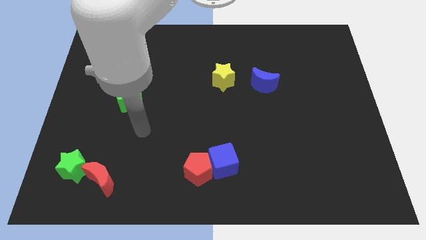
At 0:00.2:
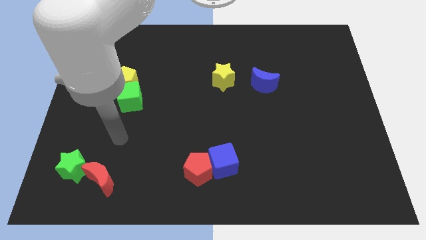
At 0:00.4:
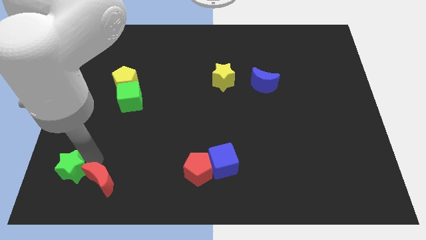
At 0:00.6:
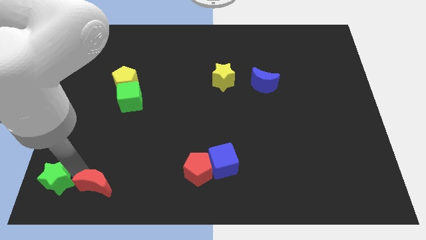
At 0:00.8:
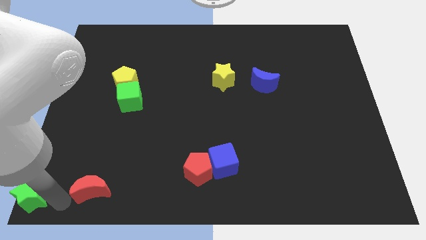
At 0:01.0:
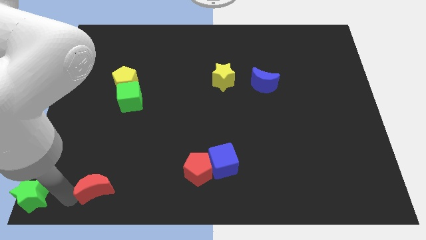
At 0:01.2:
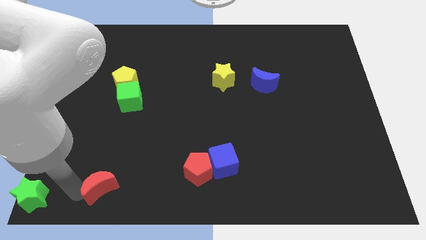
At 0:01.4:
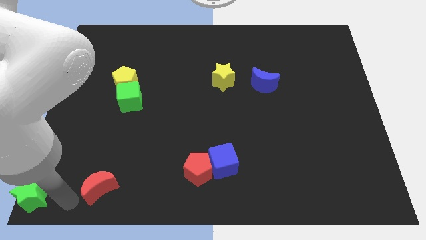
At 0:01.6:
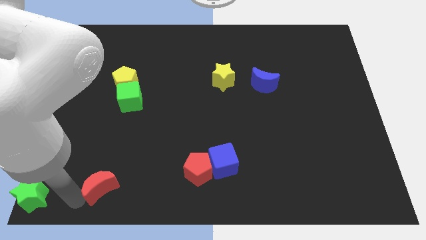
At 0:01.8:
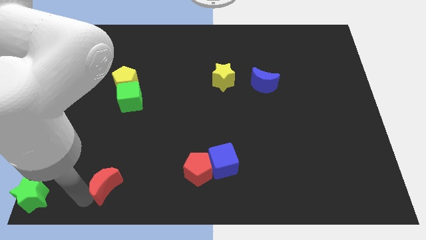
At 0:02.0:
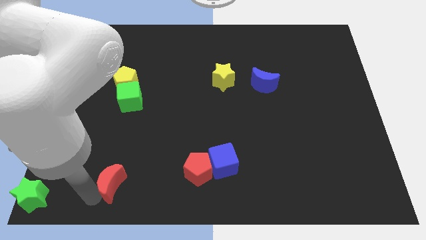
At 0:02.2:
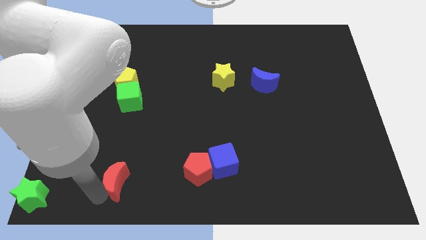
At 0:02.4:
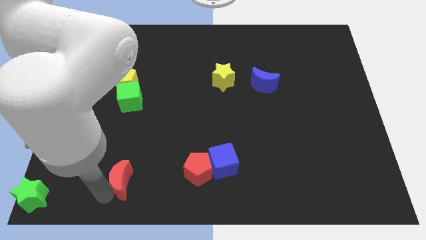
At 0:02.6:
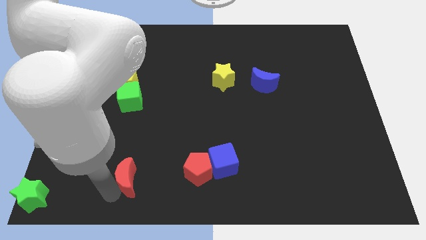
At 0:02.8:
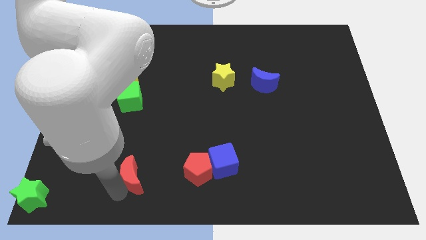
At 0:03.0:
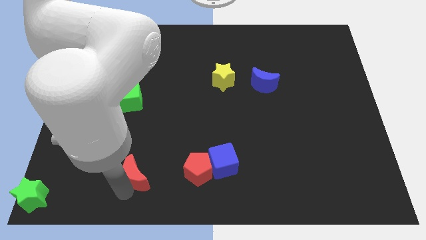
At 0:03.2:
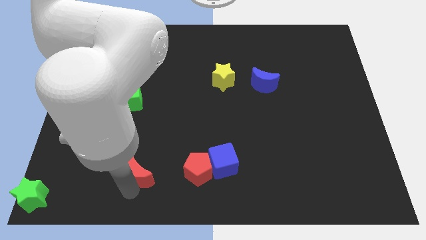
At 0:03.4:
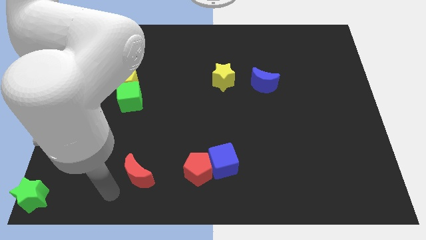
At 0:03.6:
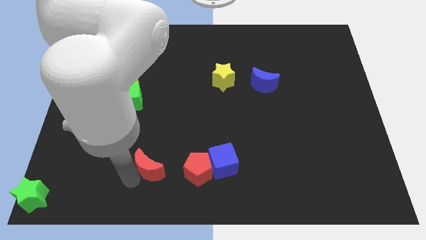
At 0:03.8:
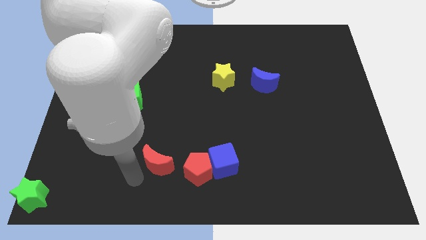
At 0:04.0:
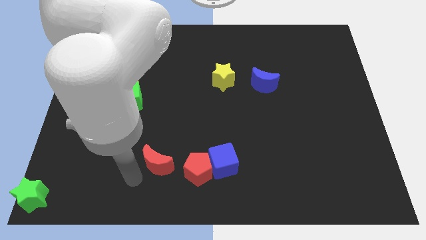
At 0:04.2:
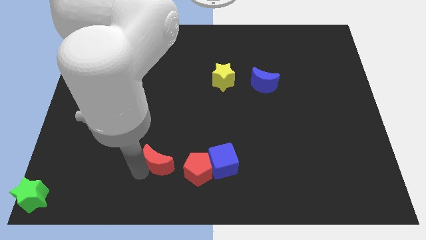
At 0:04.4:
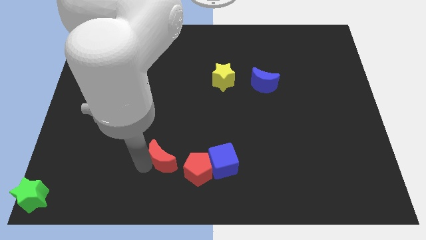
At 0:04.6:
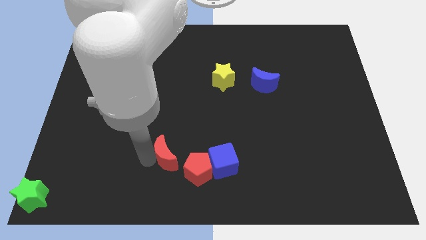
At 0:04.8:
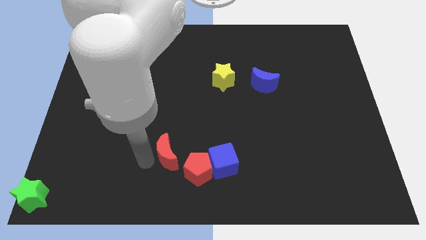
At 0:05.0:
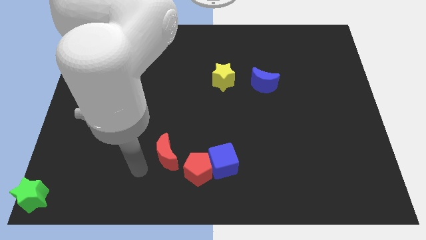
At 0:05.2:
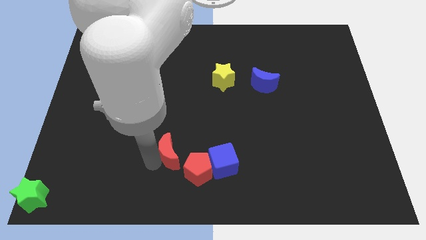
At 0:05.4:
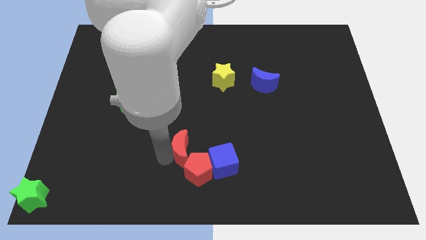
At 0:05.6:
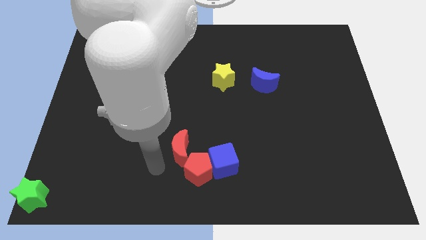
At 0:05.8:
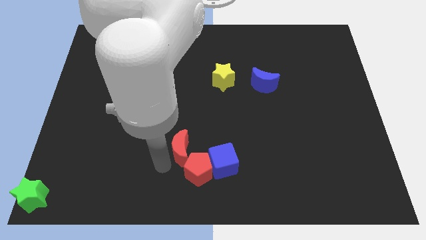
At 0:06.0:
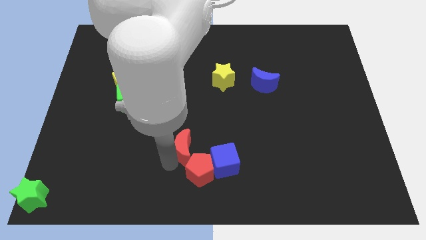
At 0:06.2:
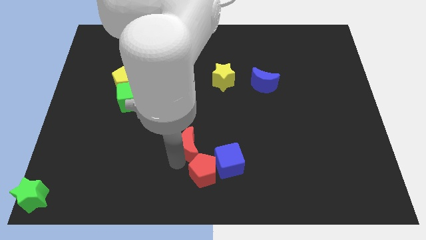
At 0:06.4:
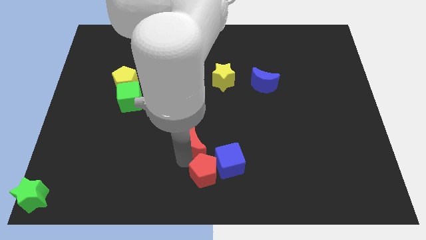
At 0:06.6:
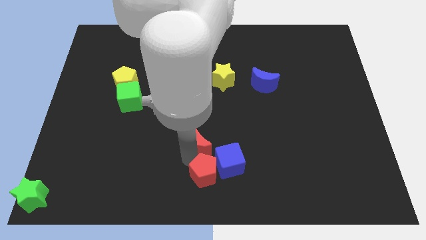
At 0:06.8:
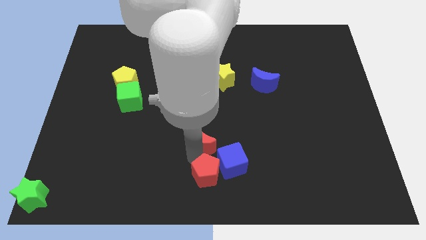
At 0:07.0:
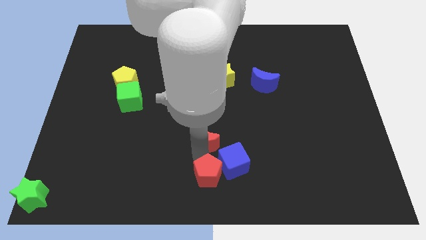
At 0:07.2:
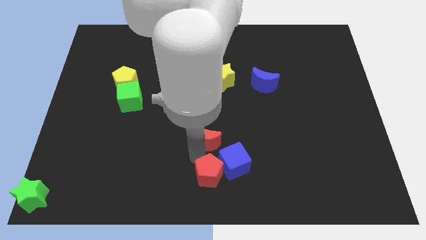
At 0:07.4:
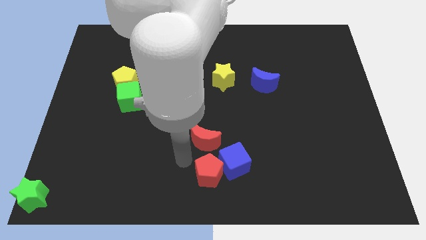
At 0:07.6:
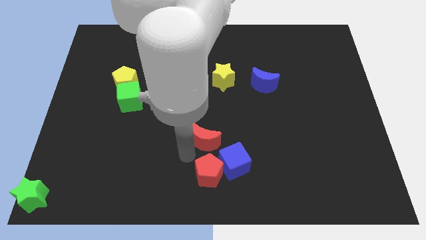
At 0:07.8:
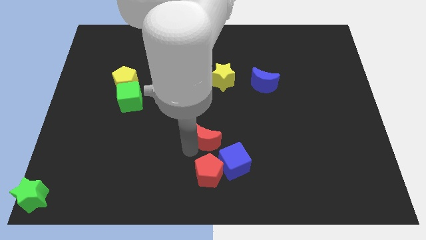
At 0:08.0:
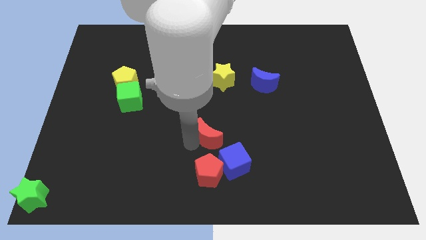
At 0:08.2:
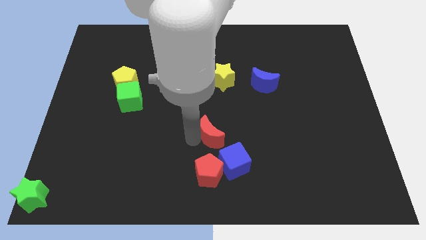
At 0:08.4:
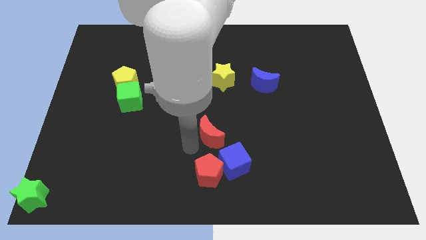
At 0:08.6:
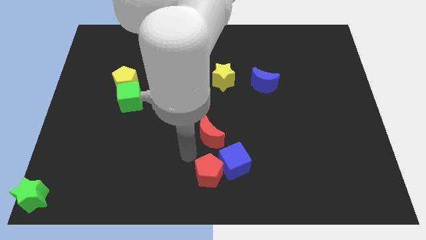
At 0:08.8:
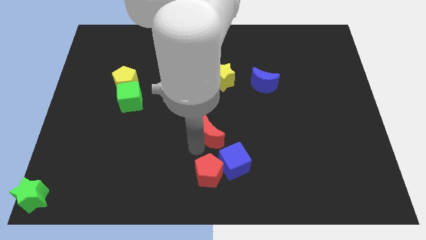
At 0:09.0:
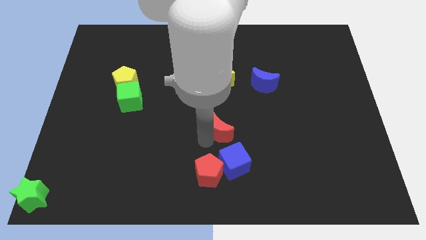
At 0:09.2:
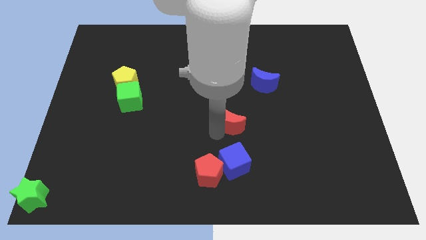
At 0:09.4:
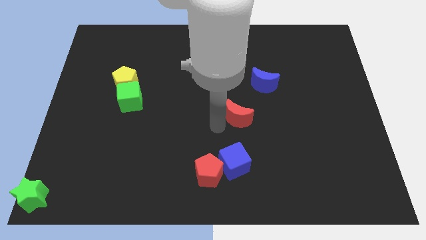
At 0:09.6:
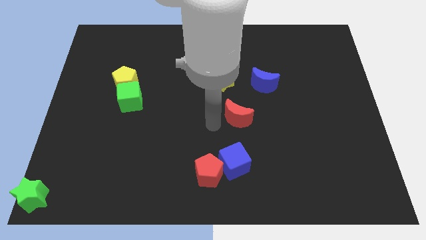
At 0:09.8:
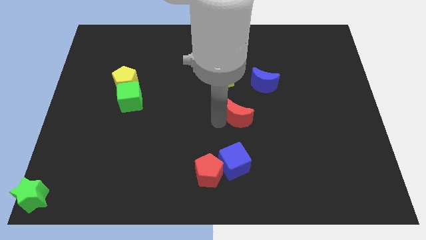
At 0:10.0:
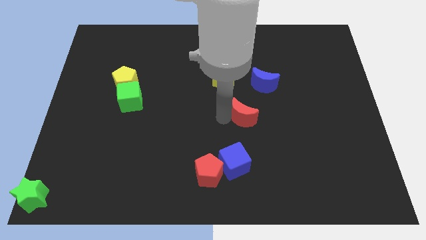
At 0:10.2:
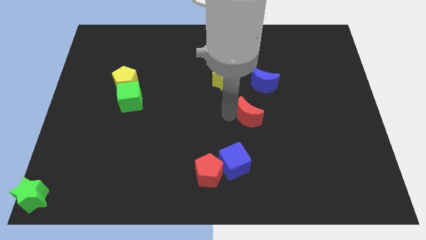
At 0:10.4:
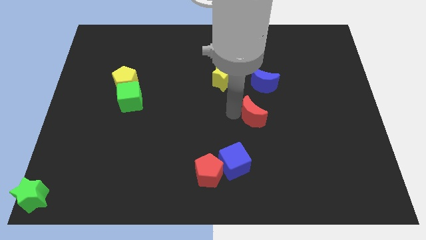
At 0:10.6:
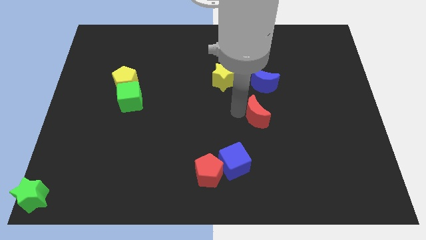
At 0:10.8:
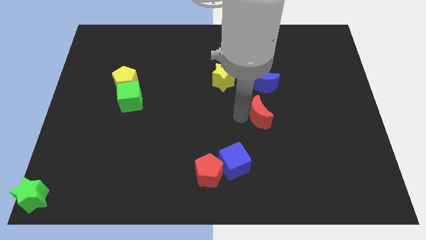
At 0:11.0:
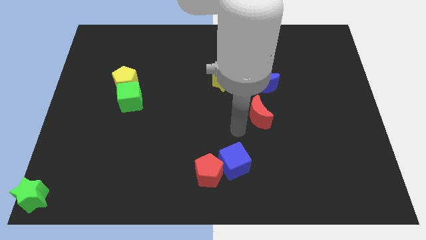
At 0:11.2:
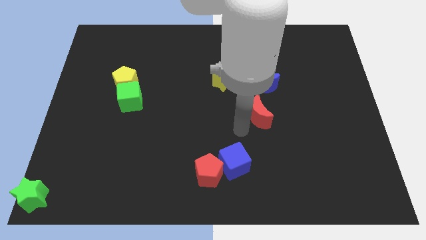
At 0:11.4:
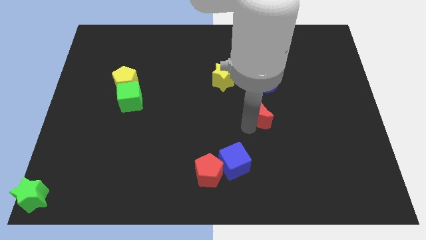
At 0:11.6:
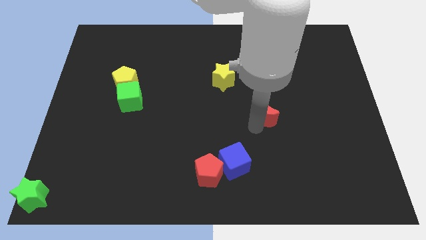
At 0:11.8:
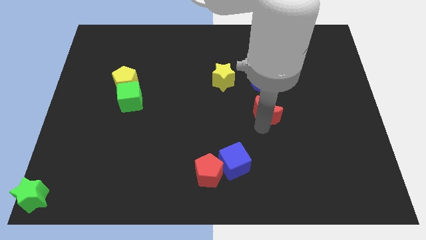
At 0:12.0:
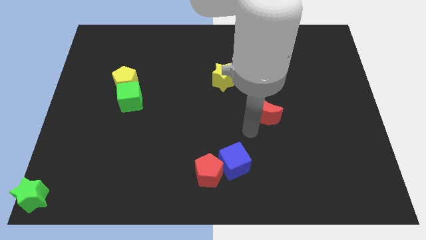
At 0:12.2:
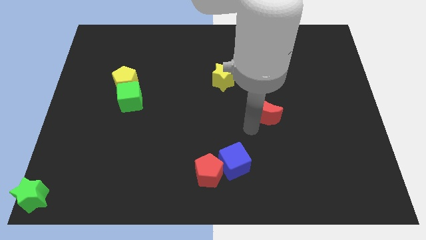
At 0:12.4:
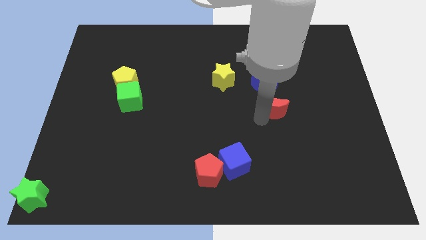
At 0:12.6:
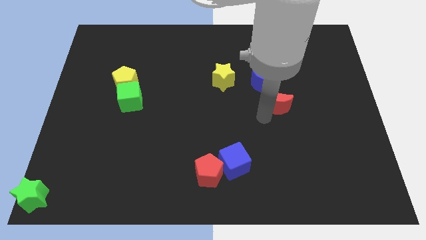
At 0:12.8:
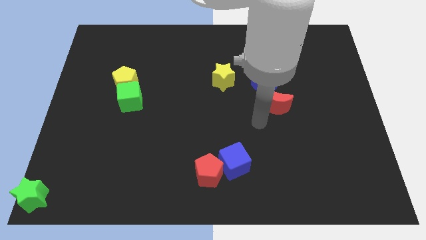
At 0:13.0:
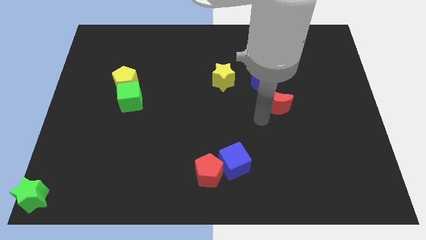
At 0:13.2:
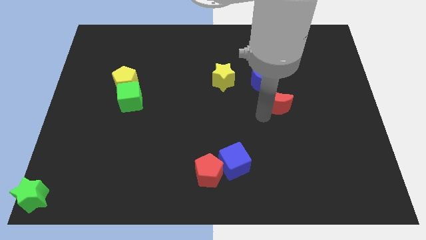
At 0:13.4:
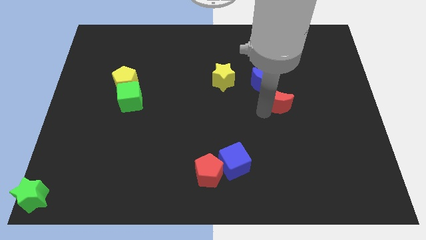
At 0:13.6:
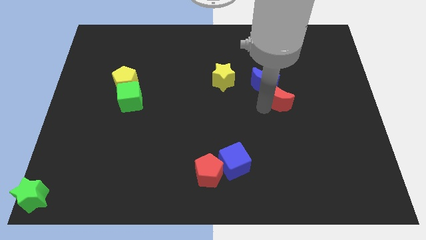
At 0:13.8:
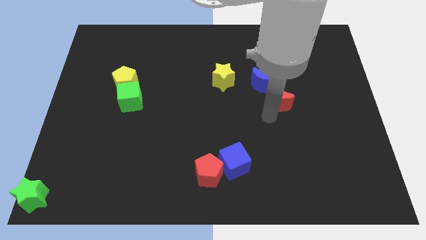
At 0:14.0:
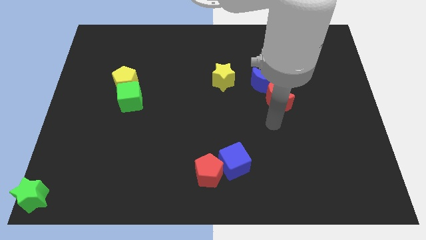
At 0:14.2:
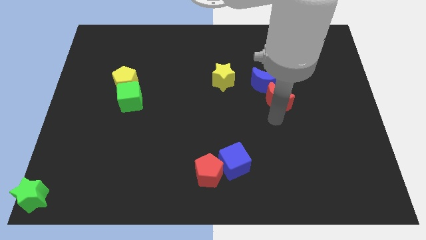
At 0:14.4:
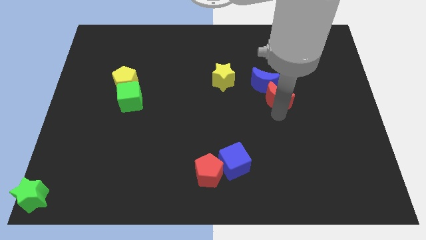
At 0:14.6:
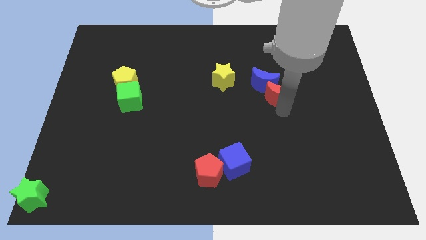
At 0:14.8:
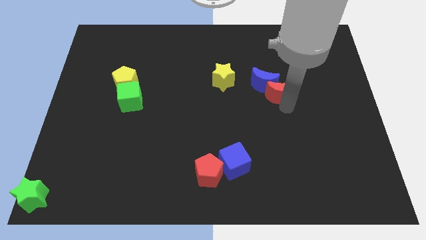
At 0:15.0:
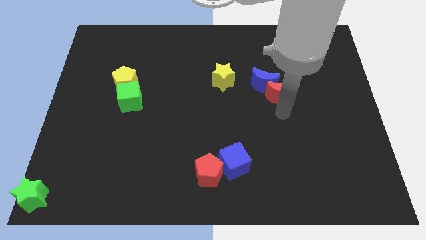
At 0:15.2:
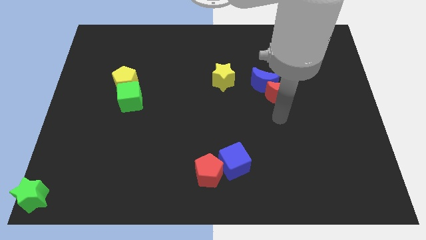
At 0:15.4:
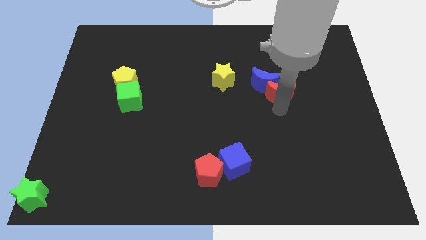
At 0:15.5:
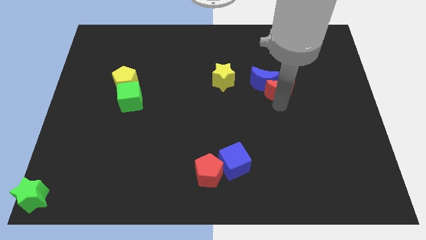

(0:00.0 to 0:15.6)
put the red moon just right of the yellow star

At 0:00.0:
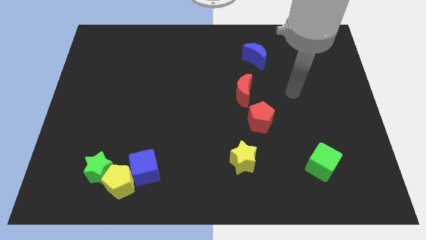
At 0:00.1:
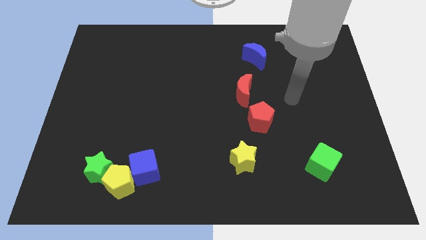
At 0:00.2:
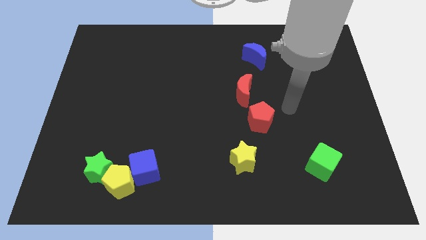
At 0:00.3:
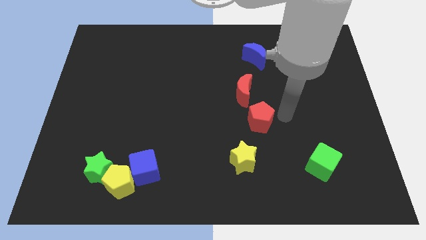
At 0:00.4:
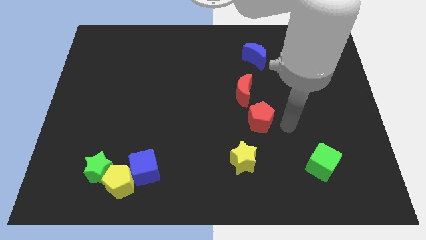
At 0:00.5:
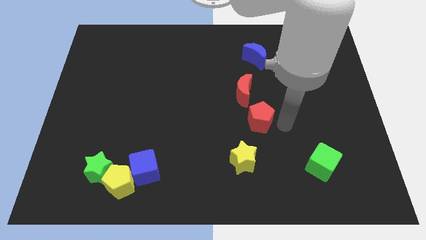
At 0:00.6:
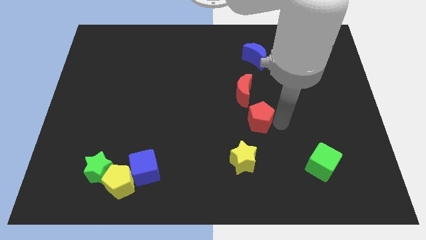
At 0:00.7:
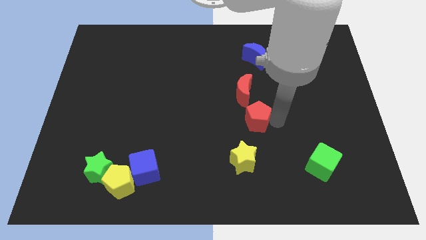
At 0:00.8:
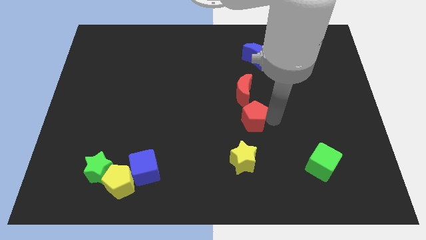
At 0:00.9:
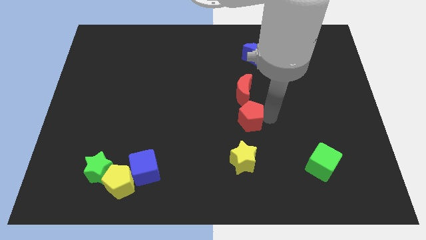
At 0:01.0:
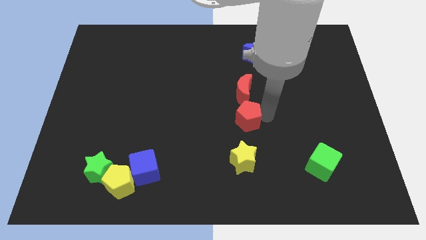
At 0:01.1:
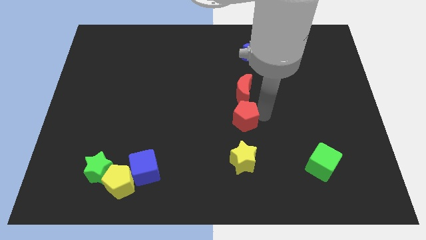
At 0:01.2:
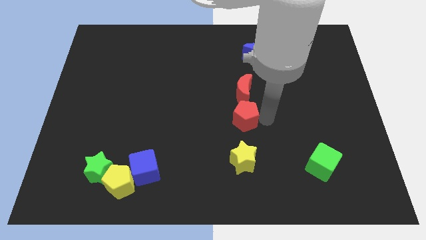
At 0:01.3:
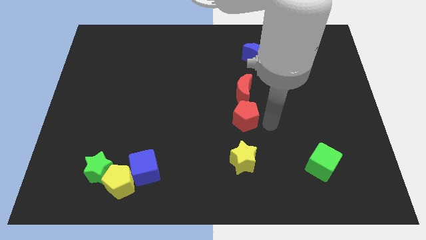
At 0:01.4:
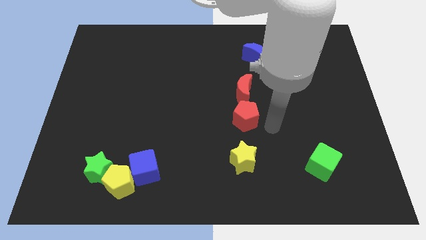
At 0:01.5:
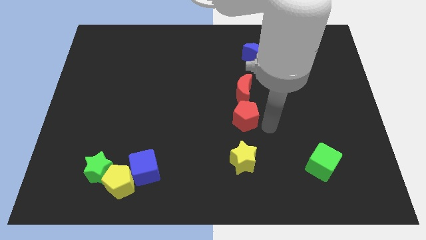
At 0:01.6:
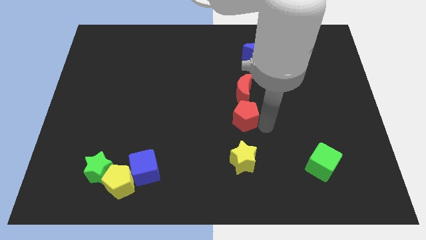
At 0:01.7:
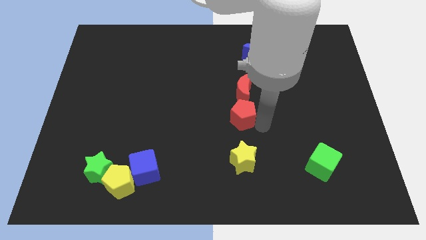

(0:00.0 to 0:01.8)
slide the red pentagon to the bottom left side of the red moon
